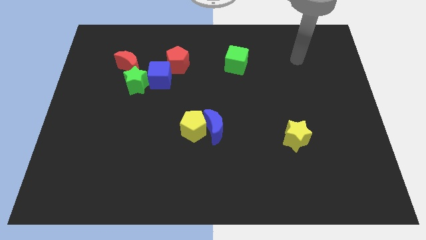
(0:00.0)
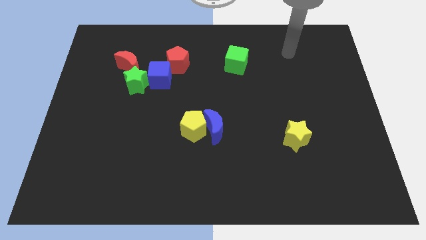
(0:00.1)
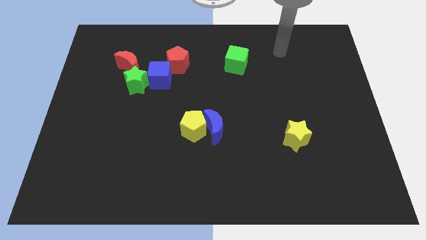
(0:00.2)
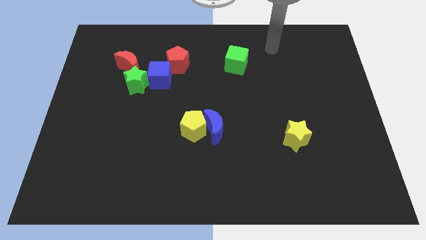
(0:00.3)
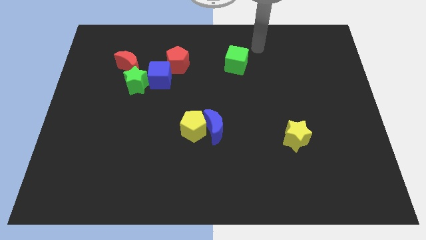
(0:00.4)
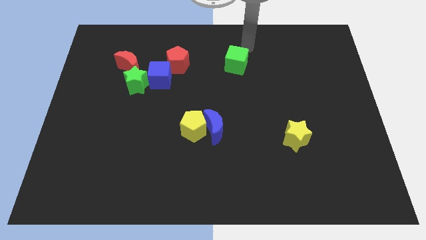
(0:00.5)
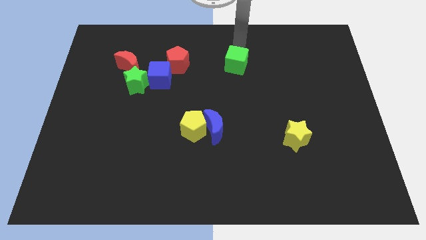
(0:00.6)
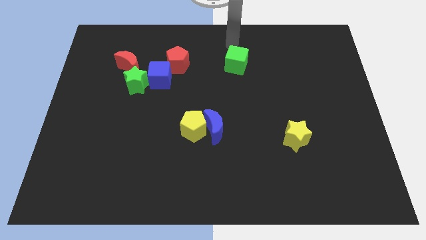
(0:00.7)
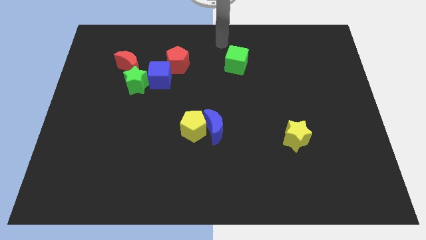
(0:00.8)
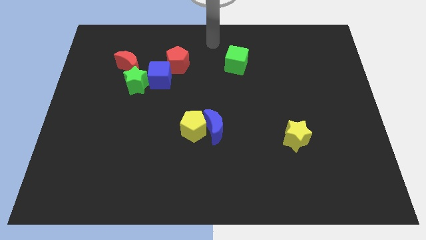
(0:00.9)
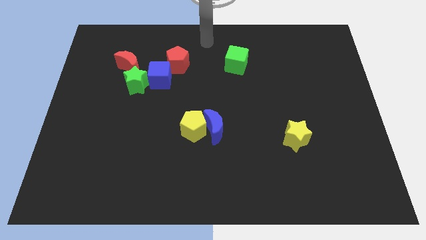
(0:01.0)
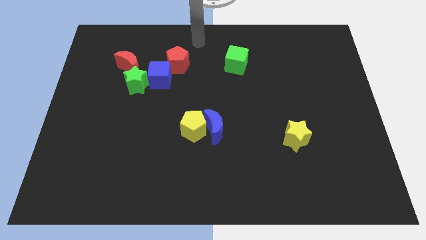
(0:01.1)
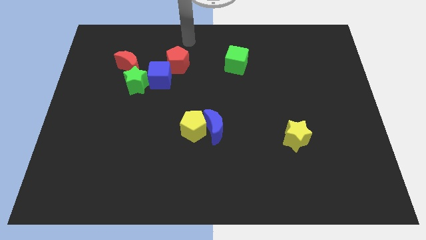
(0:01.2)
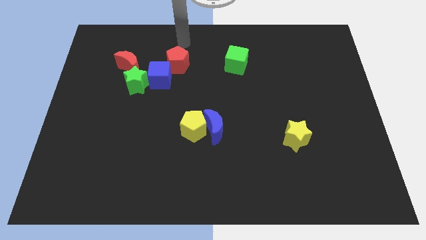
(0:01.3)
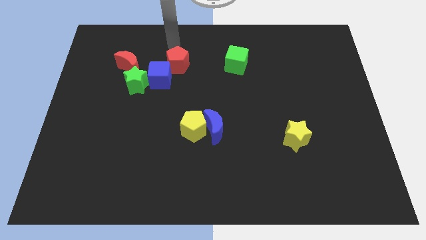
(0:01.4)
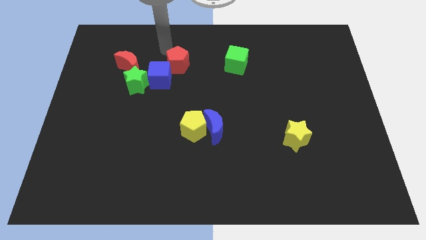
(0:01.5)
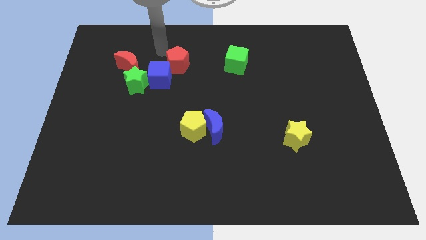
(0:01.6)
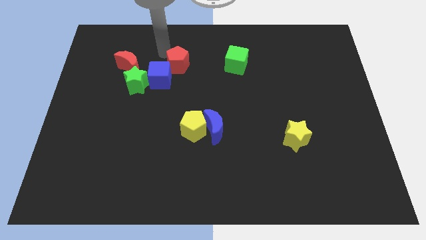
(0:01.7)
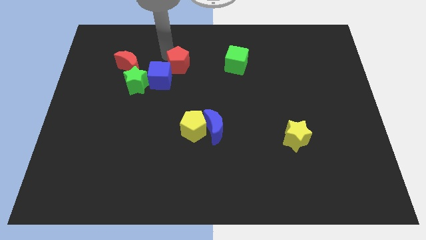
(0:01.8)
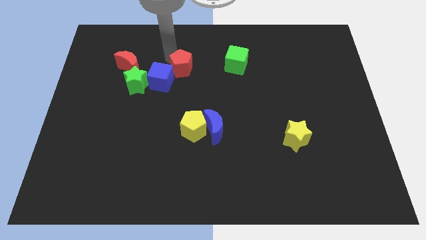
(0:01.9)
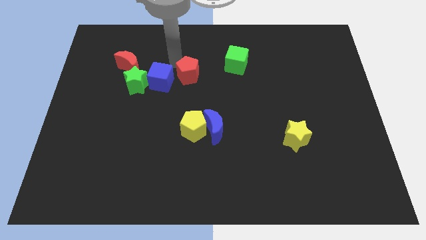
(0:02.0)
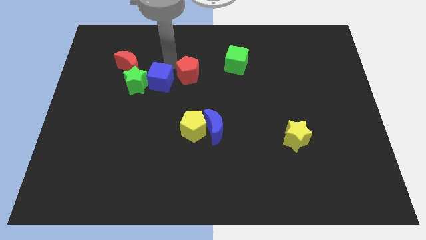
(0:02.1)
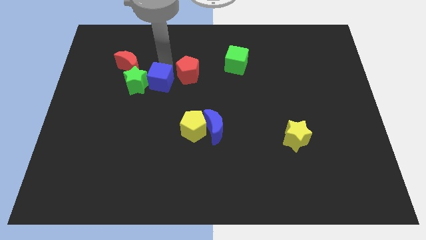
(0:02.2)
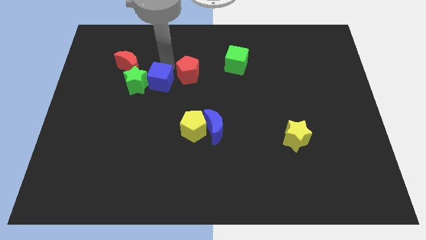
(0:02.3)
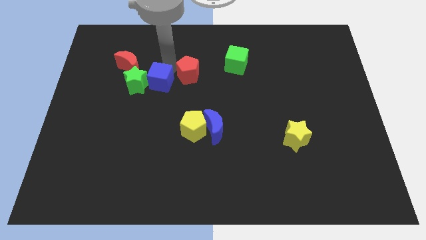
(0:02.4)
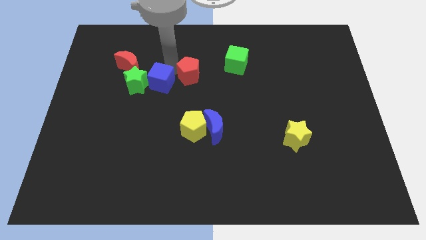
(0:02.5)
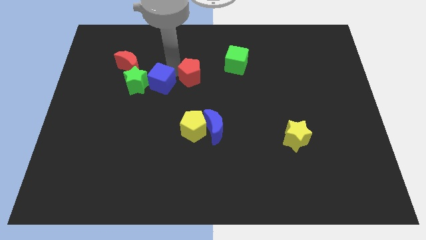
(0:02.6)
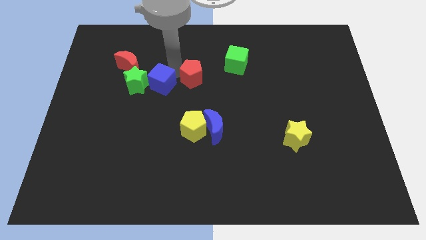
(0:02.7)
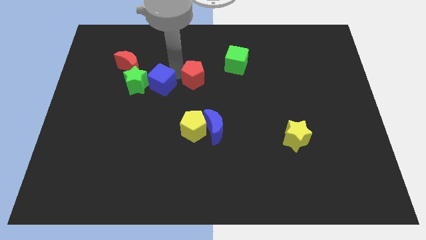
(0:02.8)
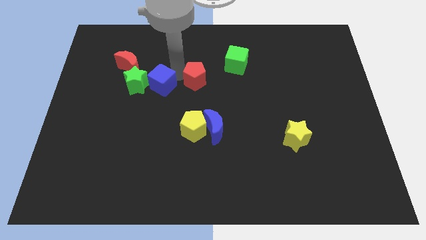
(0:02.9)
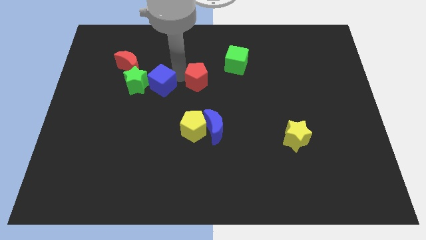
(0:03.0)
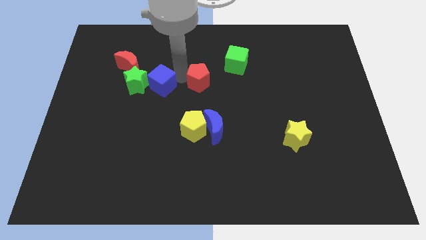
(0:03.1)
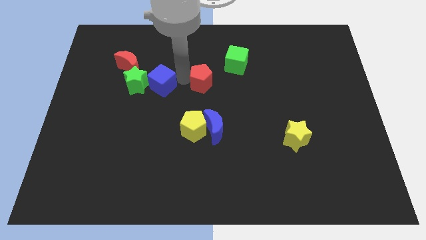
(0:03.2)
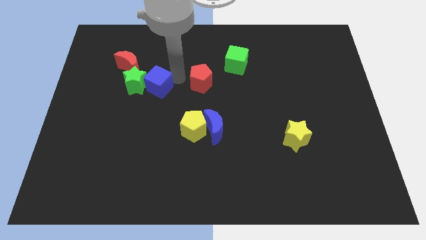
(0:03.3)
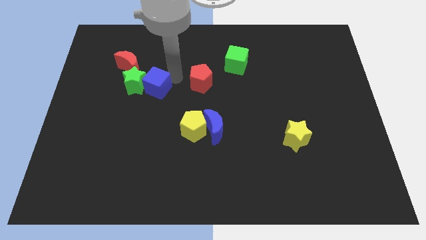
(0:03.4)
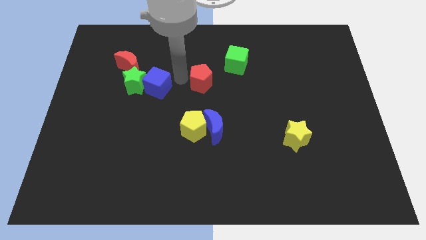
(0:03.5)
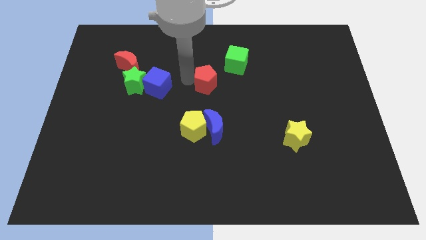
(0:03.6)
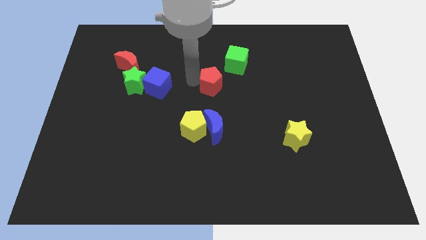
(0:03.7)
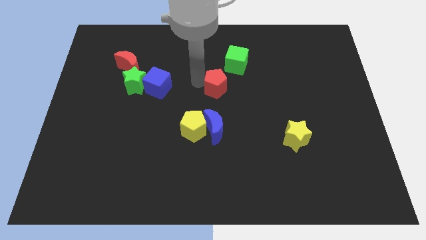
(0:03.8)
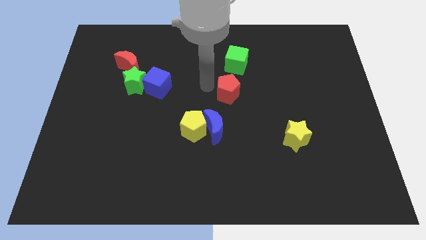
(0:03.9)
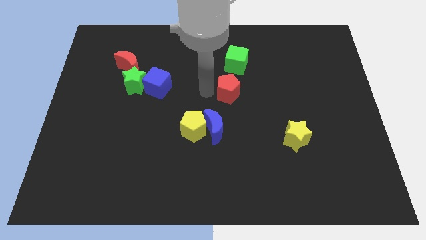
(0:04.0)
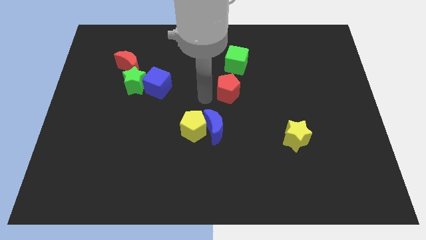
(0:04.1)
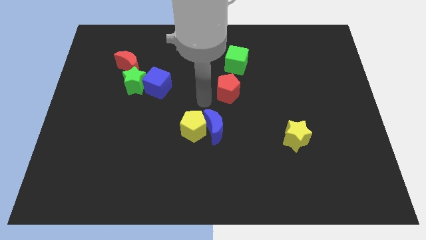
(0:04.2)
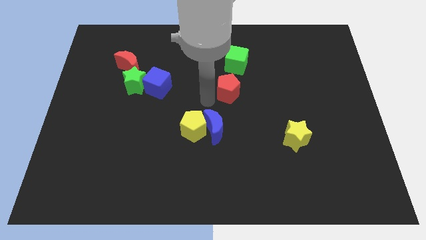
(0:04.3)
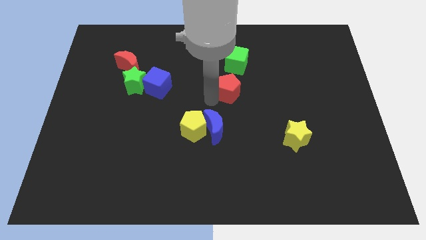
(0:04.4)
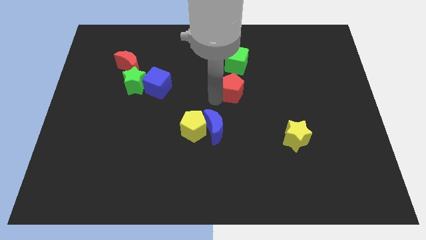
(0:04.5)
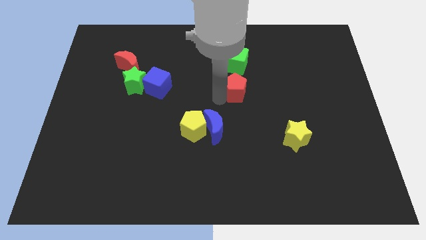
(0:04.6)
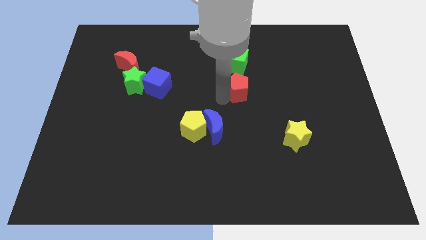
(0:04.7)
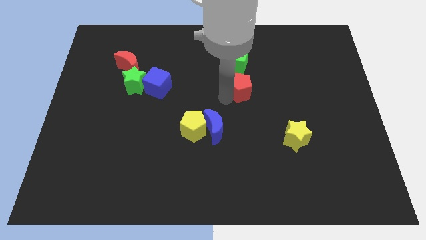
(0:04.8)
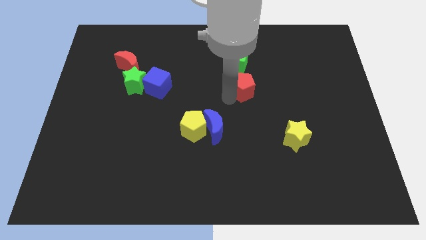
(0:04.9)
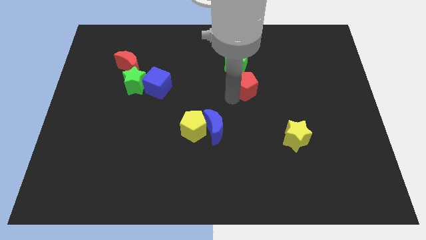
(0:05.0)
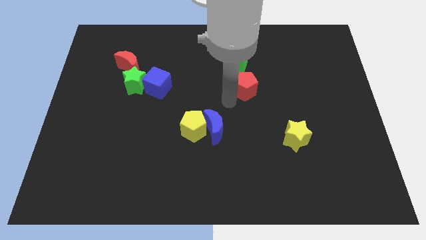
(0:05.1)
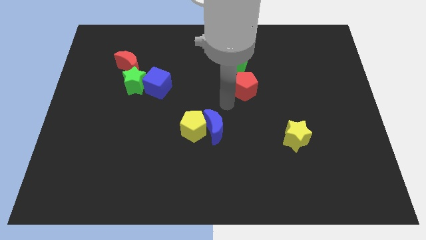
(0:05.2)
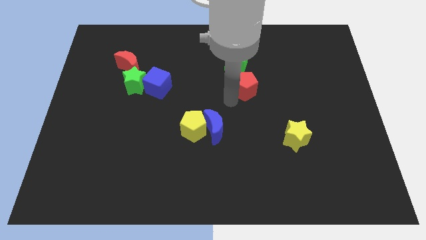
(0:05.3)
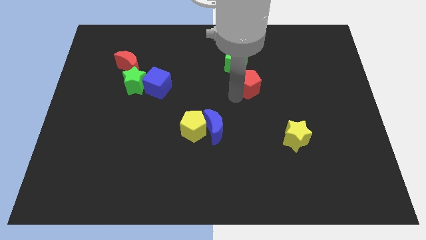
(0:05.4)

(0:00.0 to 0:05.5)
move the red pentagon to the bottom right side of the green cube

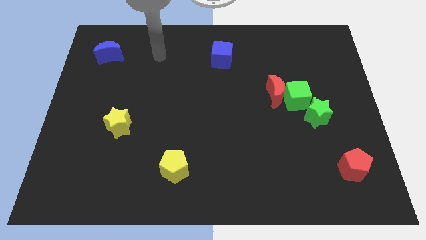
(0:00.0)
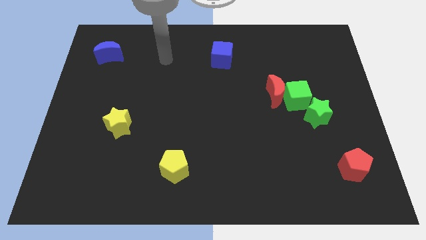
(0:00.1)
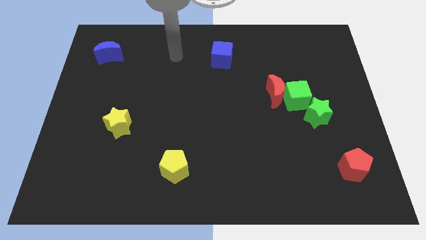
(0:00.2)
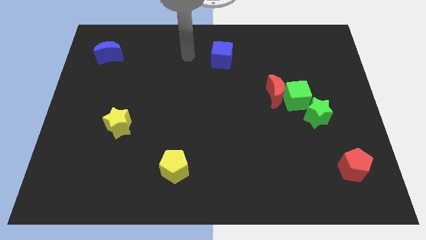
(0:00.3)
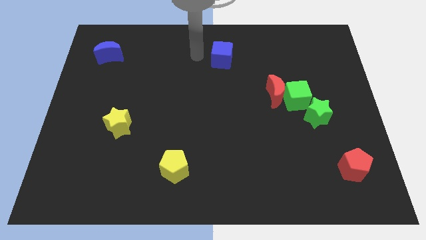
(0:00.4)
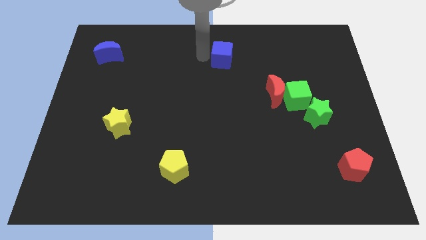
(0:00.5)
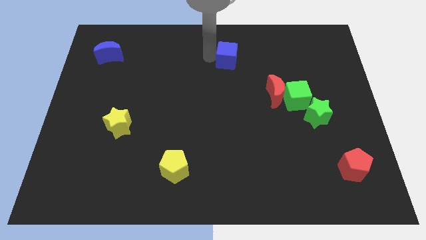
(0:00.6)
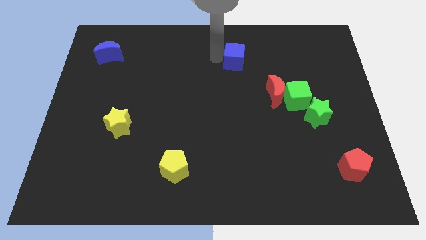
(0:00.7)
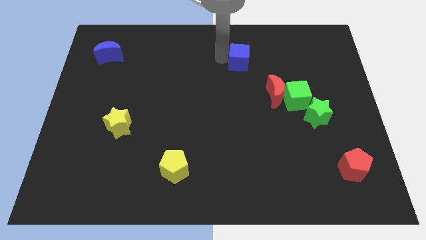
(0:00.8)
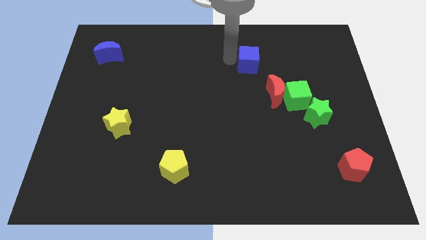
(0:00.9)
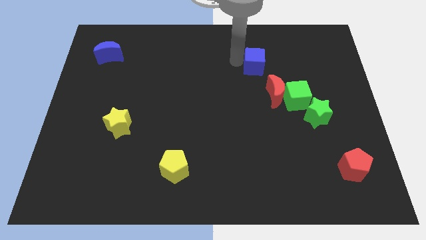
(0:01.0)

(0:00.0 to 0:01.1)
move the blue cube to the top of the red moon
